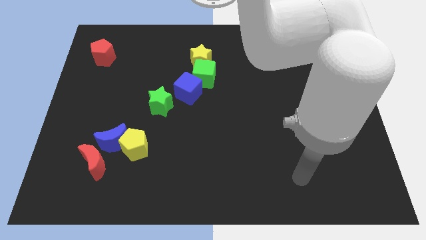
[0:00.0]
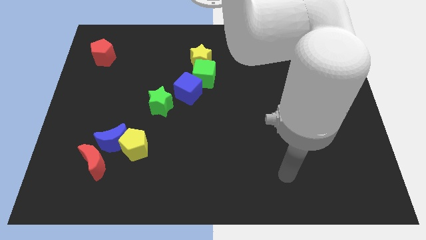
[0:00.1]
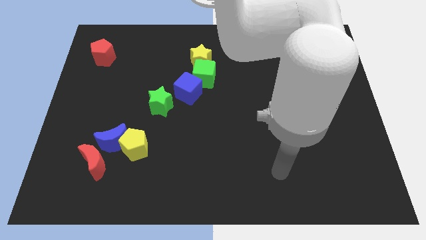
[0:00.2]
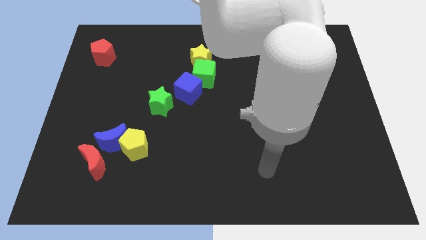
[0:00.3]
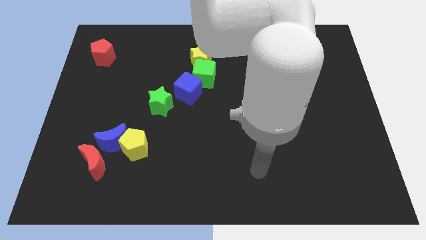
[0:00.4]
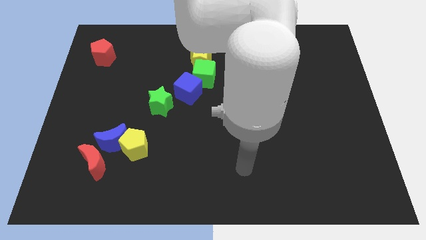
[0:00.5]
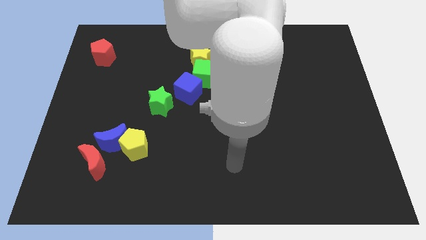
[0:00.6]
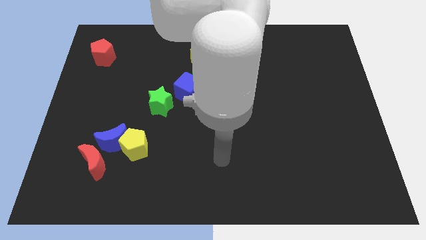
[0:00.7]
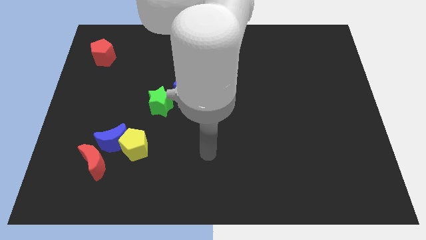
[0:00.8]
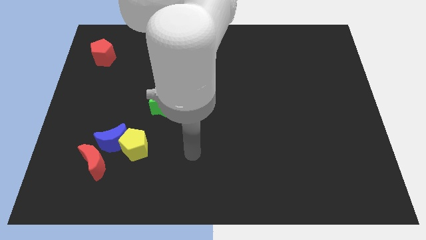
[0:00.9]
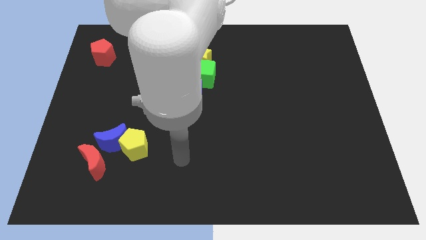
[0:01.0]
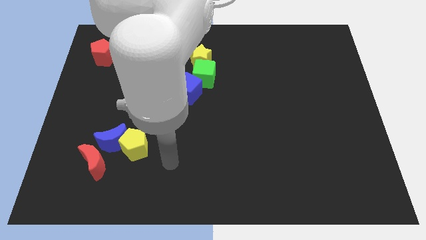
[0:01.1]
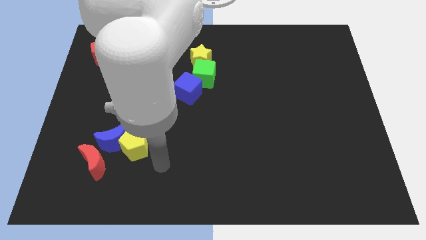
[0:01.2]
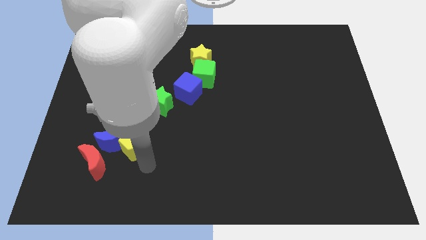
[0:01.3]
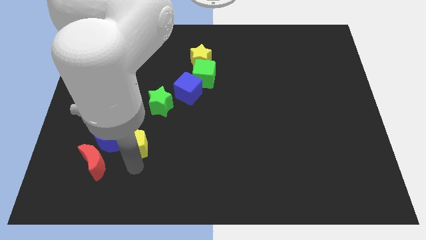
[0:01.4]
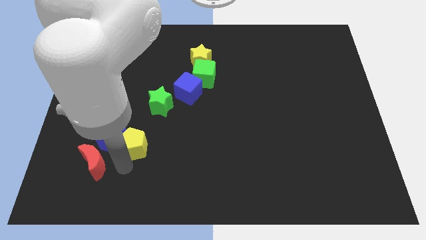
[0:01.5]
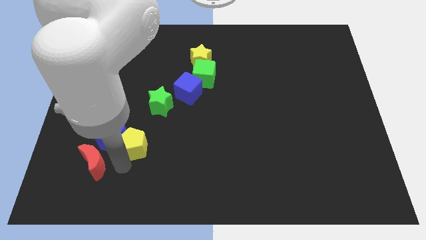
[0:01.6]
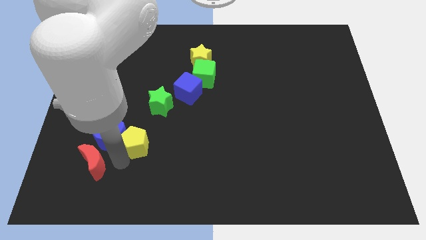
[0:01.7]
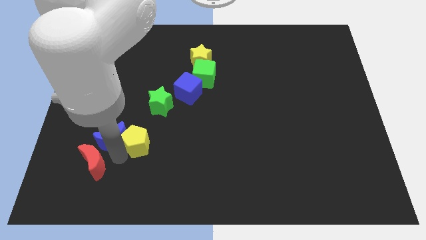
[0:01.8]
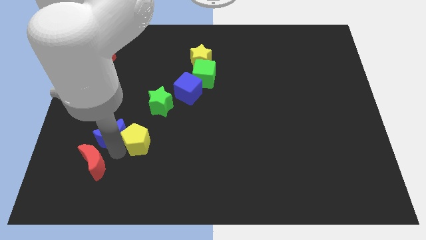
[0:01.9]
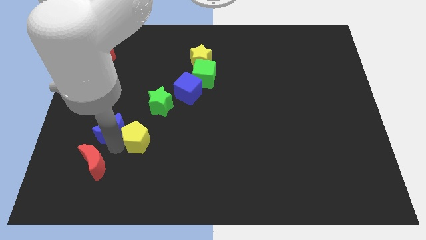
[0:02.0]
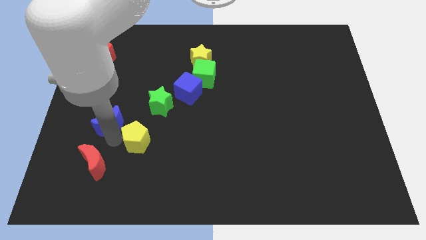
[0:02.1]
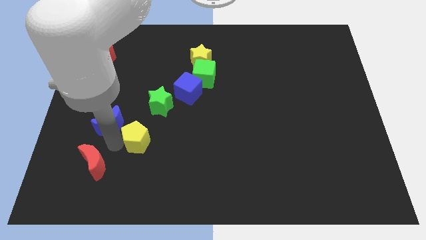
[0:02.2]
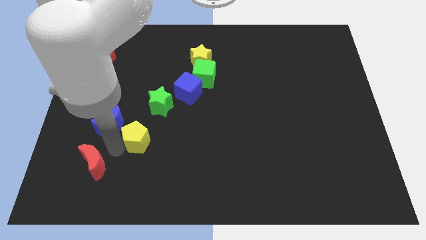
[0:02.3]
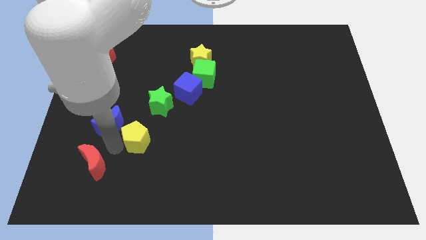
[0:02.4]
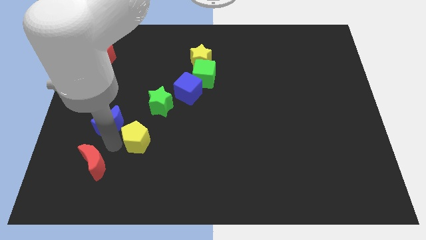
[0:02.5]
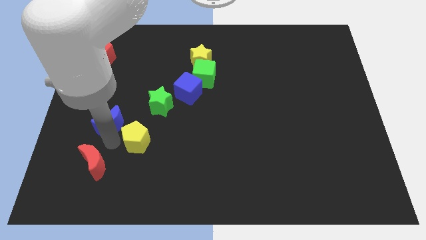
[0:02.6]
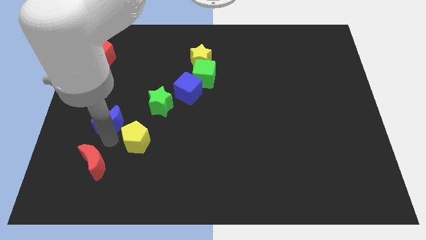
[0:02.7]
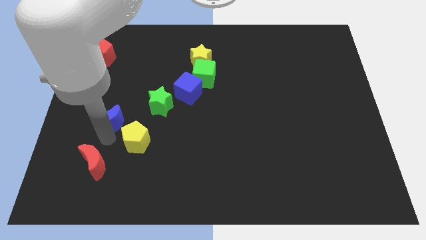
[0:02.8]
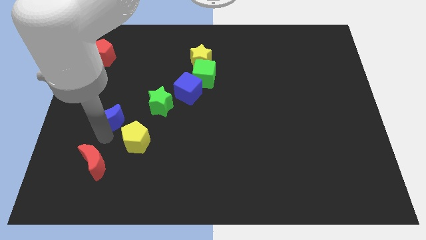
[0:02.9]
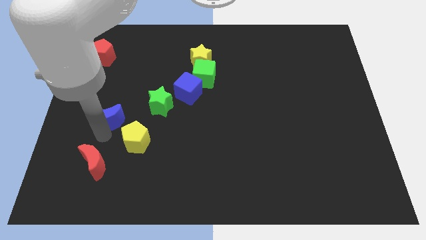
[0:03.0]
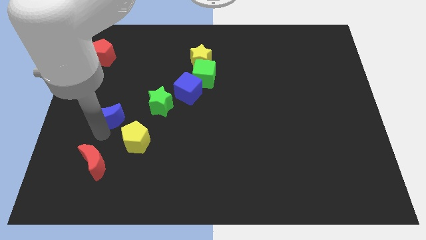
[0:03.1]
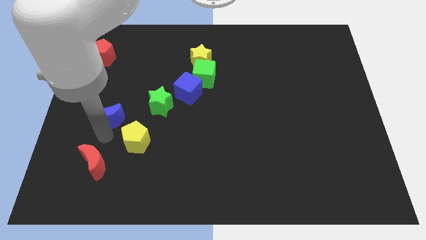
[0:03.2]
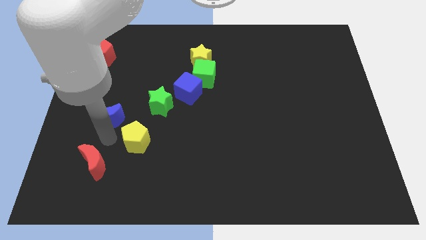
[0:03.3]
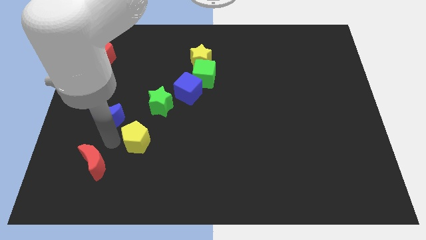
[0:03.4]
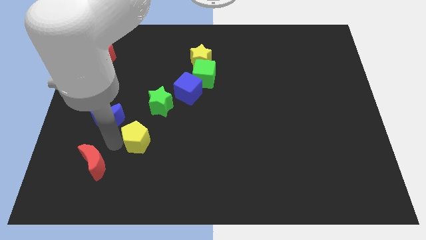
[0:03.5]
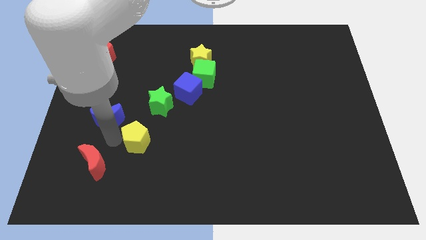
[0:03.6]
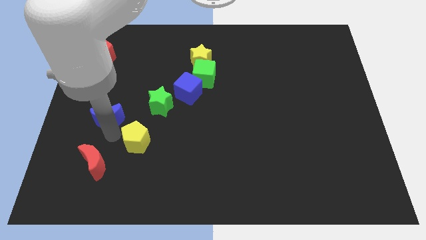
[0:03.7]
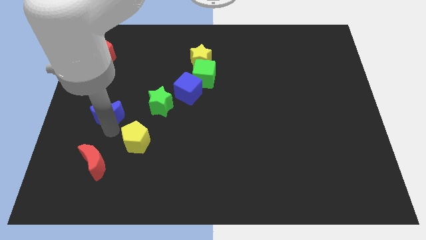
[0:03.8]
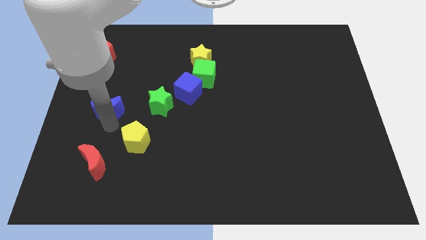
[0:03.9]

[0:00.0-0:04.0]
separate the blue moon from the yellow pentagon and red moon

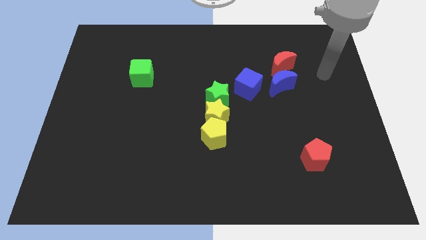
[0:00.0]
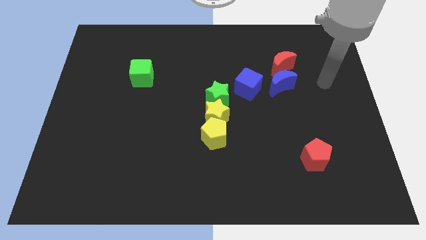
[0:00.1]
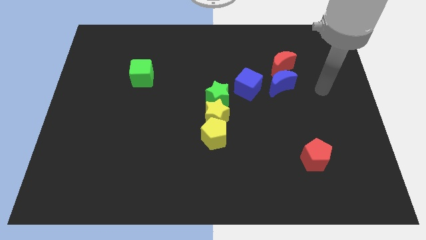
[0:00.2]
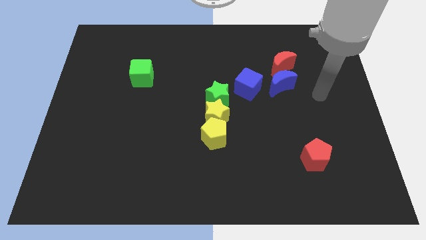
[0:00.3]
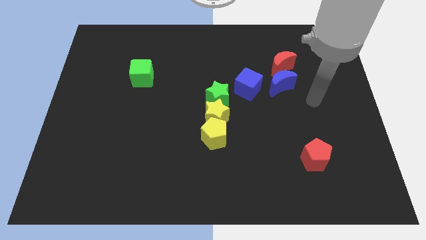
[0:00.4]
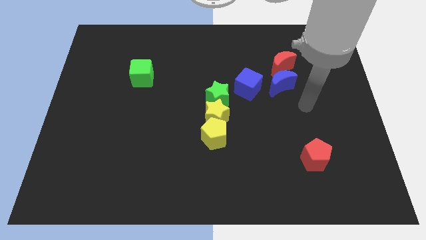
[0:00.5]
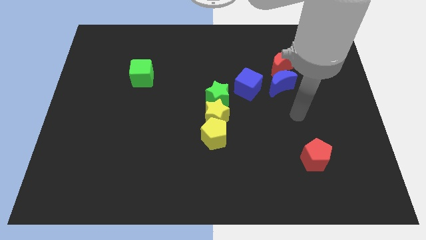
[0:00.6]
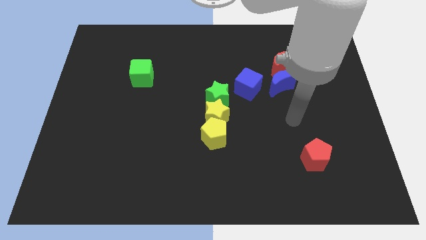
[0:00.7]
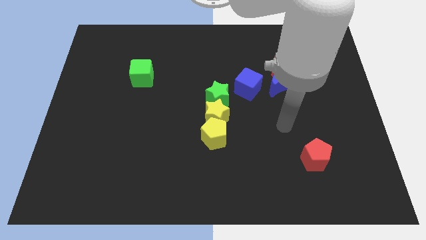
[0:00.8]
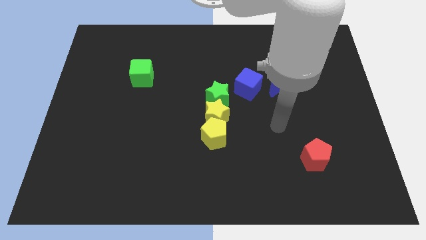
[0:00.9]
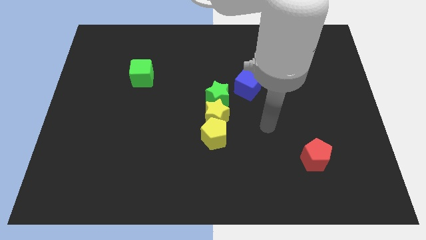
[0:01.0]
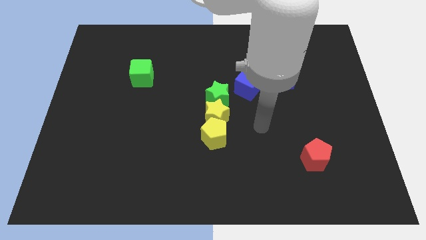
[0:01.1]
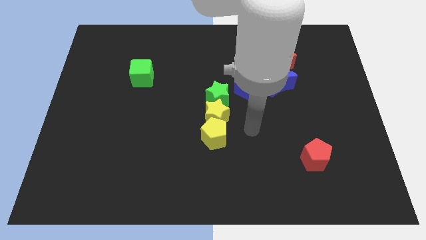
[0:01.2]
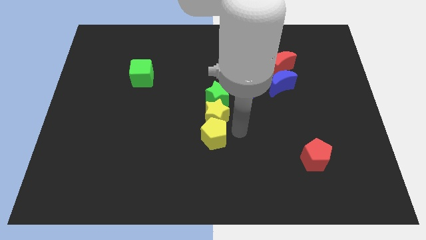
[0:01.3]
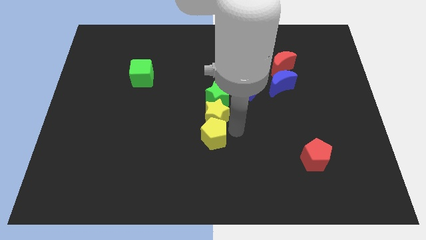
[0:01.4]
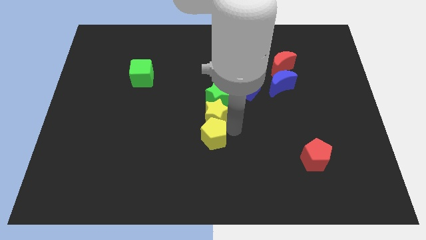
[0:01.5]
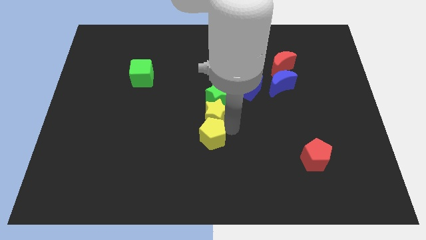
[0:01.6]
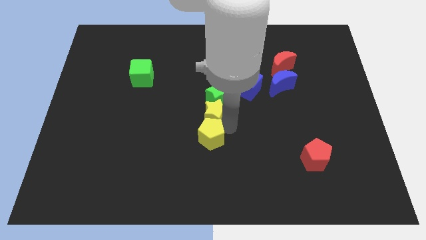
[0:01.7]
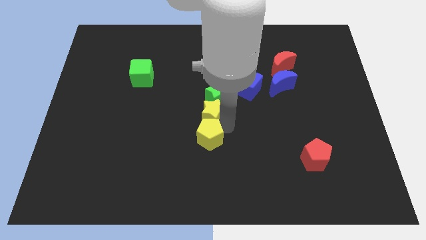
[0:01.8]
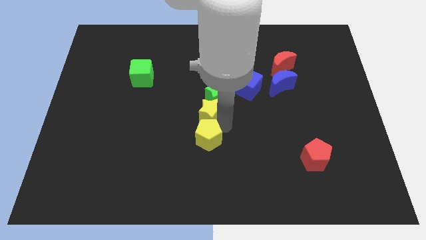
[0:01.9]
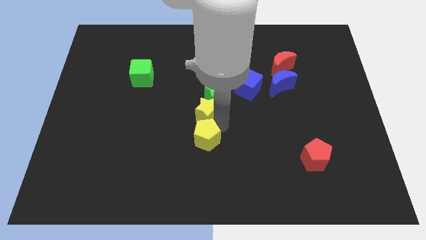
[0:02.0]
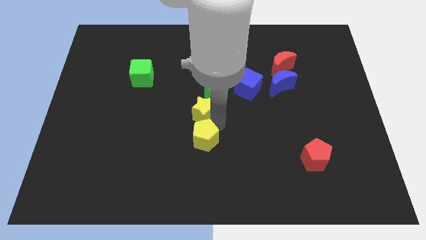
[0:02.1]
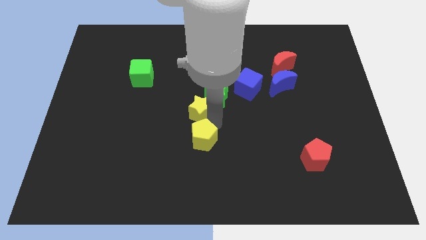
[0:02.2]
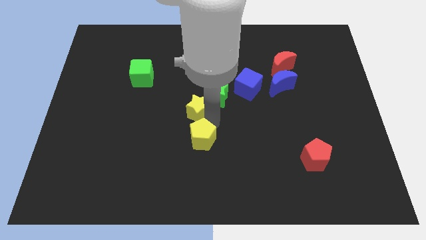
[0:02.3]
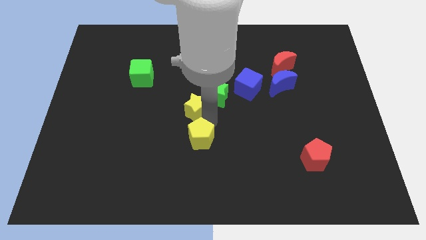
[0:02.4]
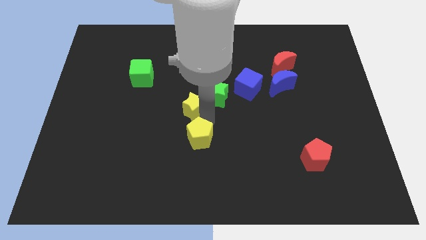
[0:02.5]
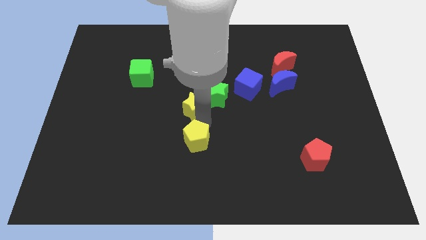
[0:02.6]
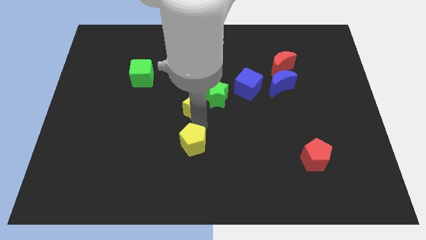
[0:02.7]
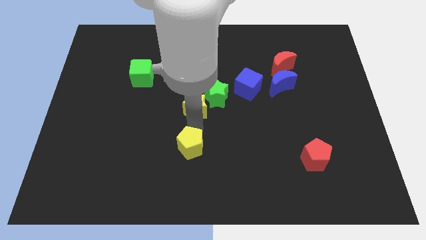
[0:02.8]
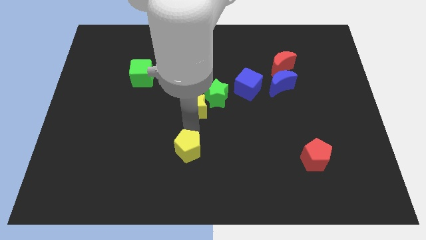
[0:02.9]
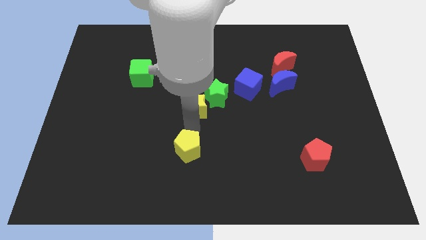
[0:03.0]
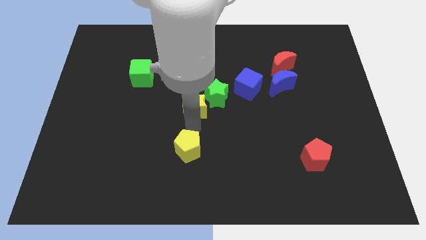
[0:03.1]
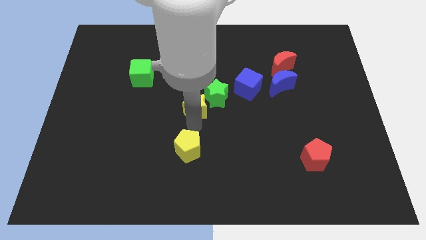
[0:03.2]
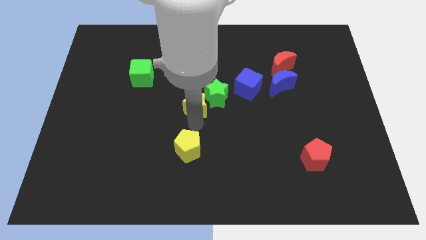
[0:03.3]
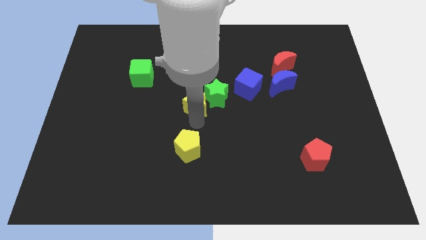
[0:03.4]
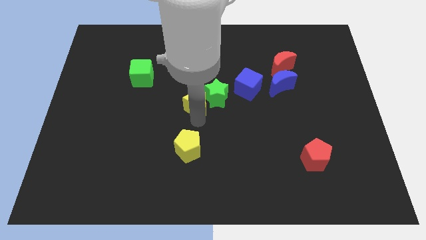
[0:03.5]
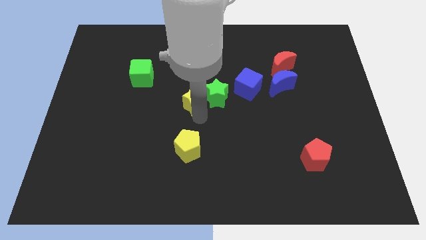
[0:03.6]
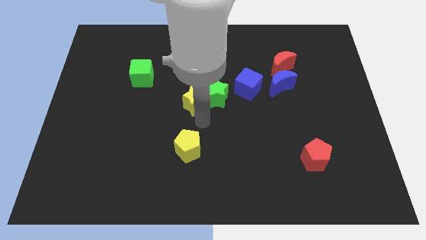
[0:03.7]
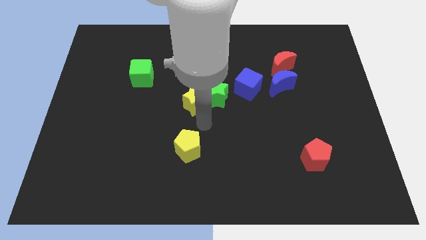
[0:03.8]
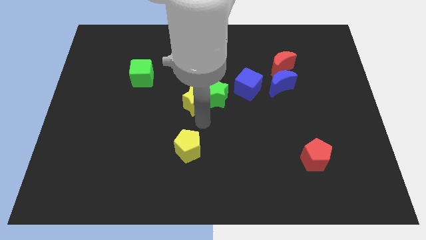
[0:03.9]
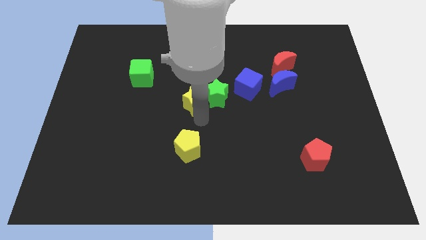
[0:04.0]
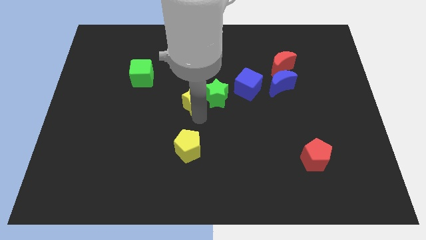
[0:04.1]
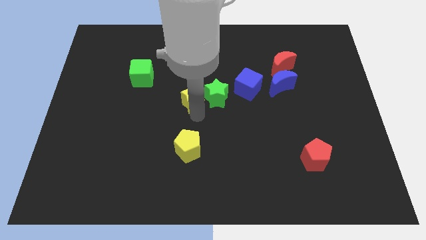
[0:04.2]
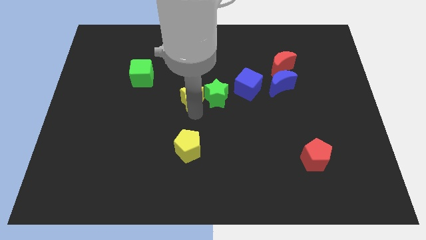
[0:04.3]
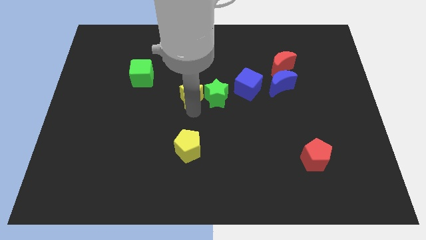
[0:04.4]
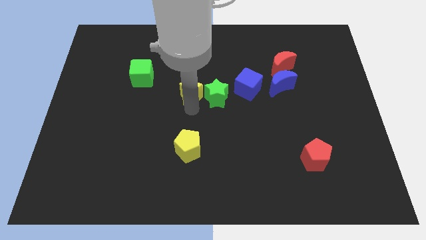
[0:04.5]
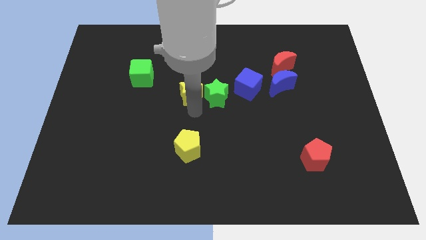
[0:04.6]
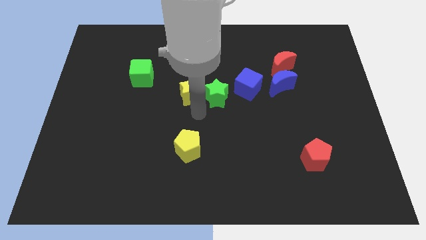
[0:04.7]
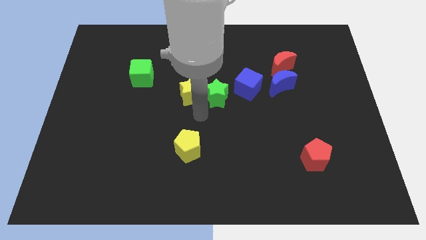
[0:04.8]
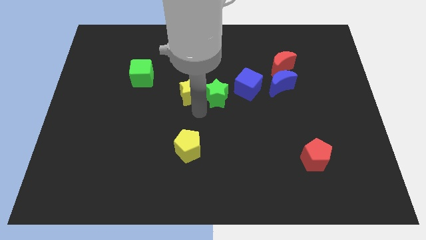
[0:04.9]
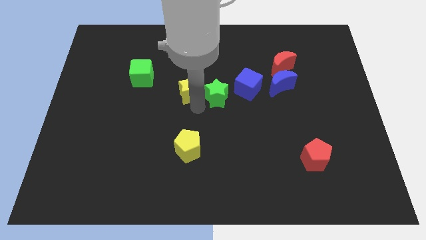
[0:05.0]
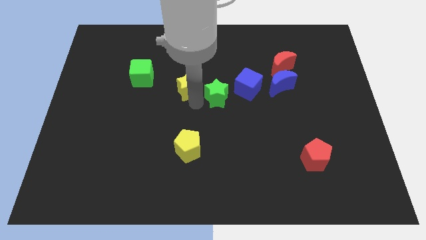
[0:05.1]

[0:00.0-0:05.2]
pull the yellow star apart from the green star and yellow pentagon

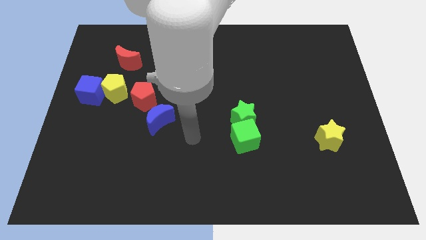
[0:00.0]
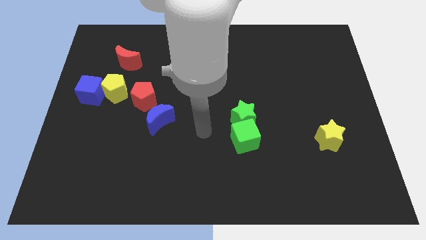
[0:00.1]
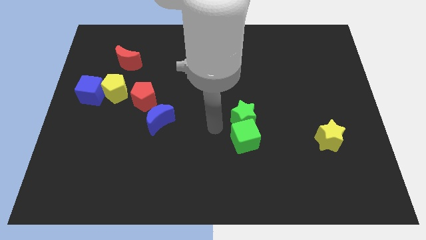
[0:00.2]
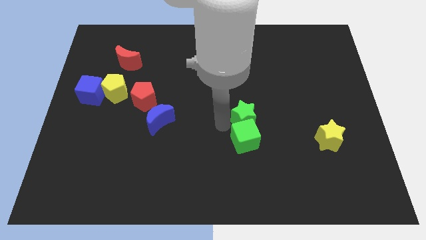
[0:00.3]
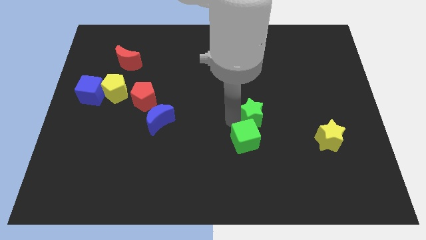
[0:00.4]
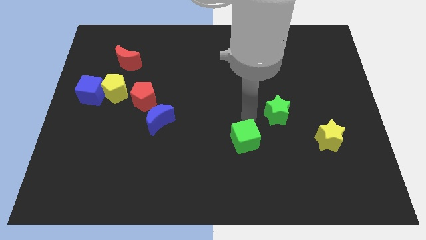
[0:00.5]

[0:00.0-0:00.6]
move the green cube away from the green star
